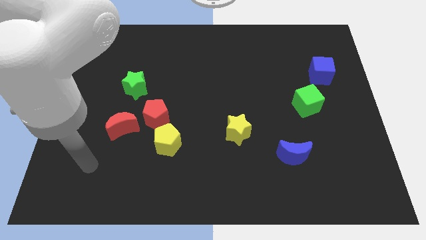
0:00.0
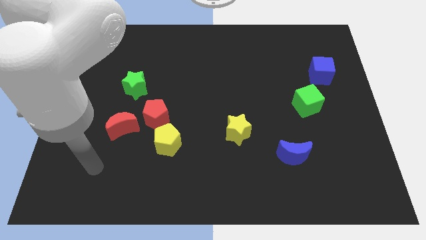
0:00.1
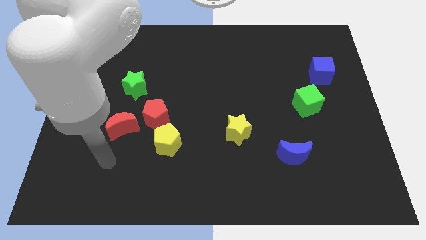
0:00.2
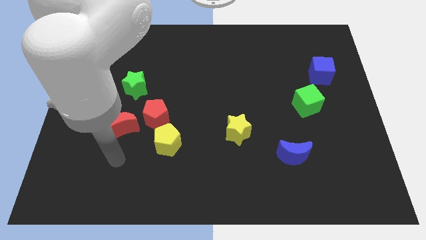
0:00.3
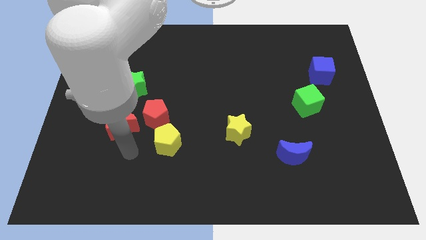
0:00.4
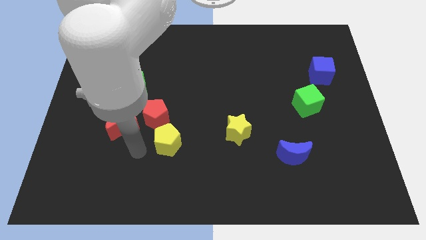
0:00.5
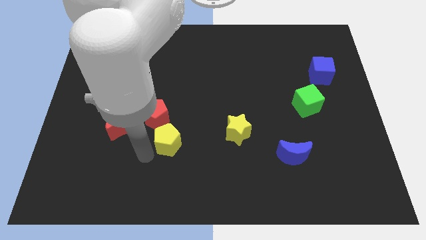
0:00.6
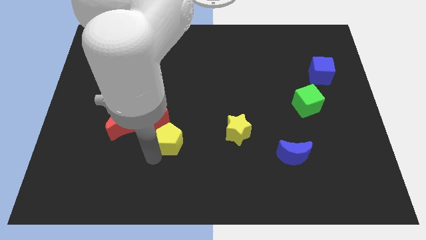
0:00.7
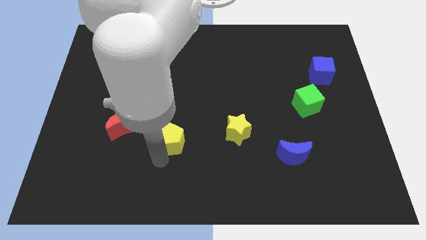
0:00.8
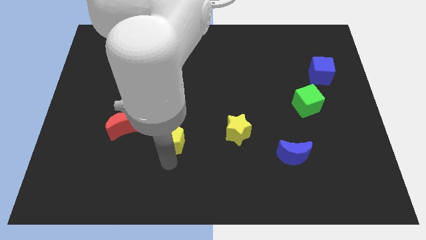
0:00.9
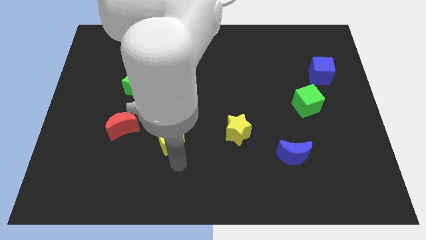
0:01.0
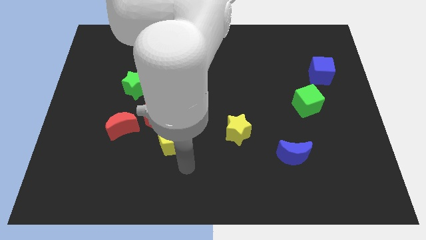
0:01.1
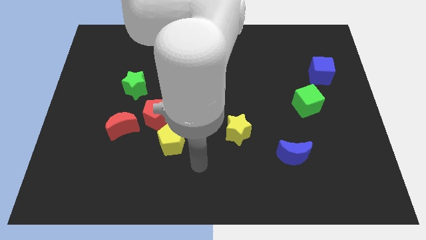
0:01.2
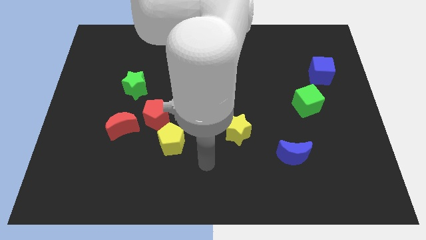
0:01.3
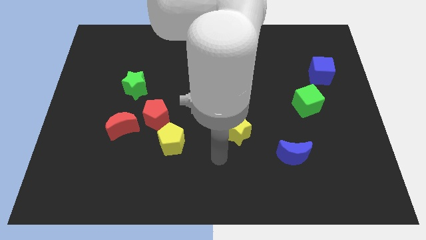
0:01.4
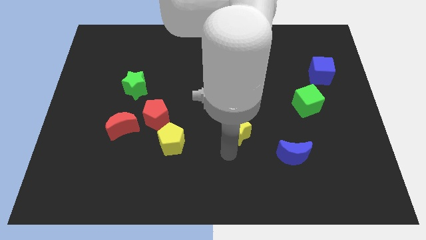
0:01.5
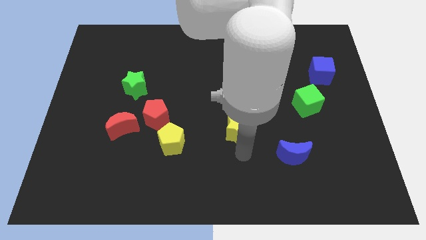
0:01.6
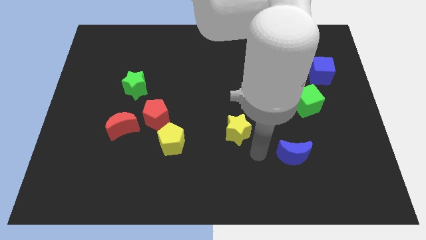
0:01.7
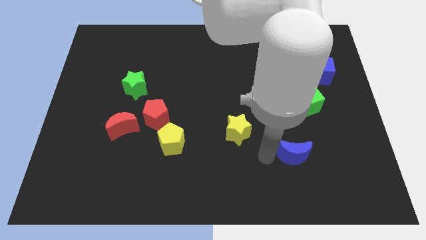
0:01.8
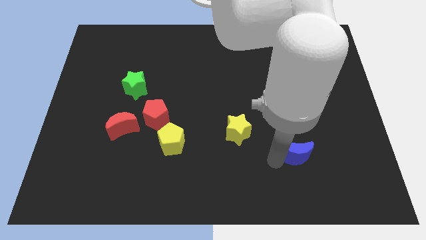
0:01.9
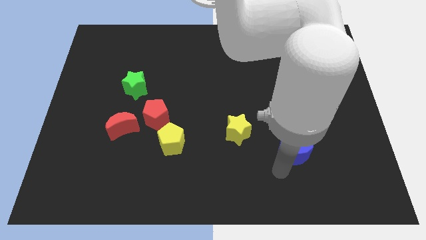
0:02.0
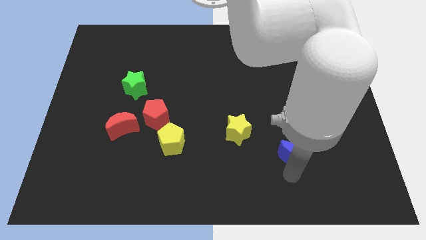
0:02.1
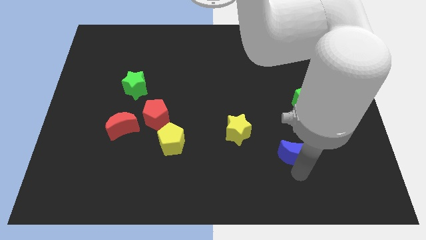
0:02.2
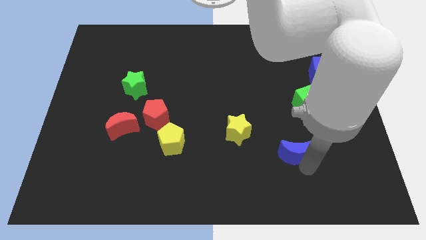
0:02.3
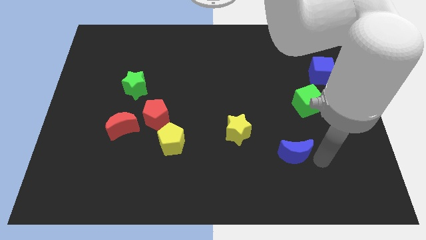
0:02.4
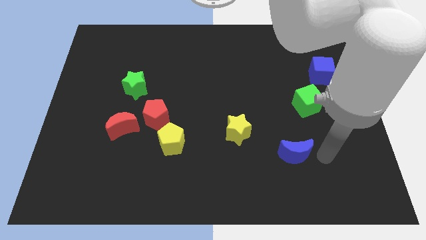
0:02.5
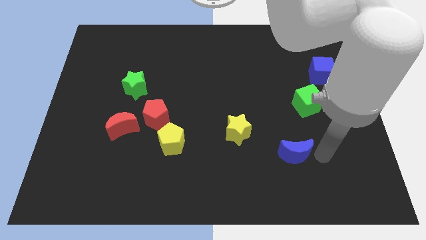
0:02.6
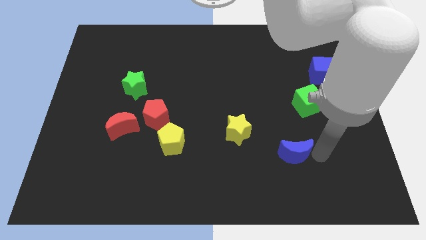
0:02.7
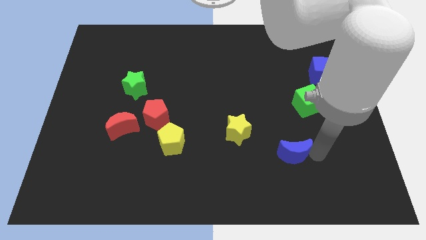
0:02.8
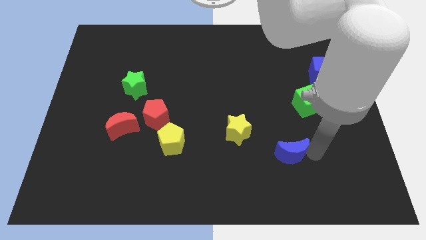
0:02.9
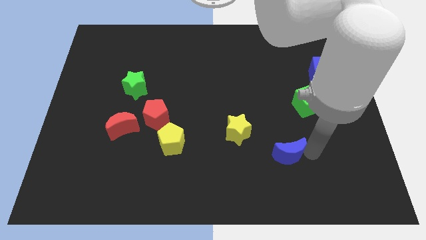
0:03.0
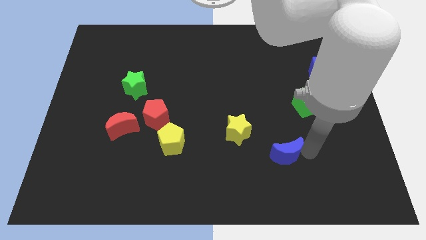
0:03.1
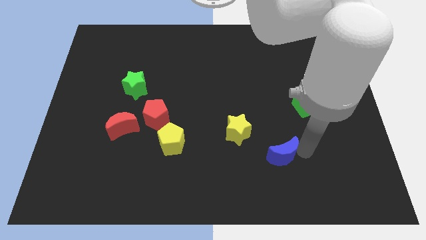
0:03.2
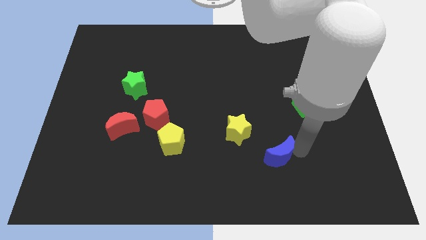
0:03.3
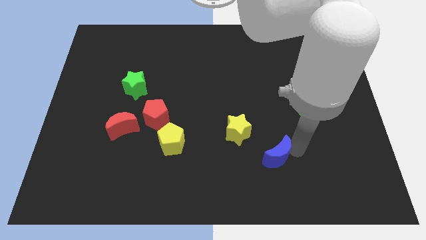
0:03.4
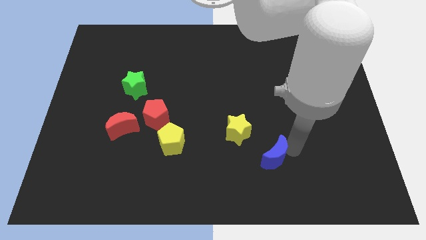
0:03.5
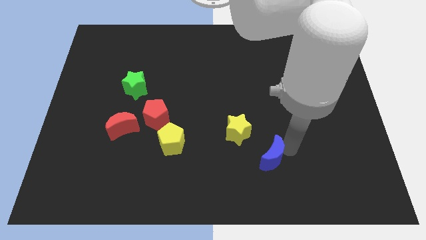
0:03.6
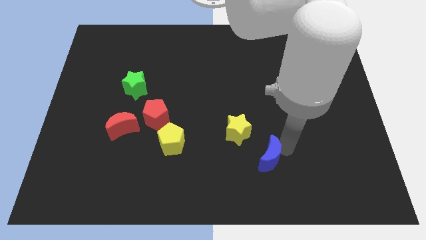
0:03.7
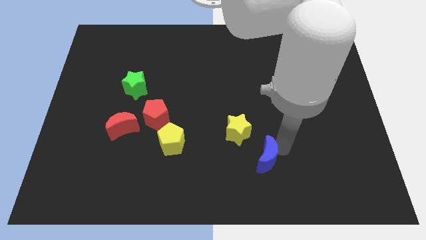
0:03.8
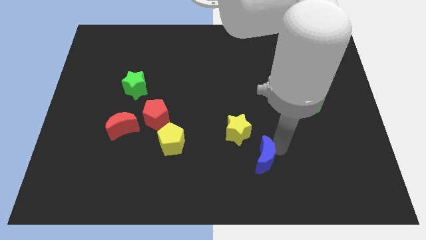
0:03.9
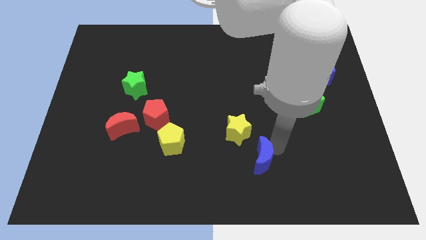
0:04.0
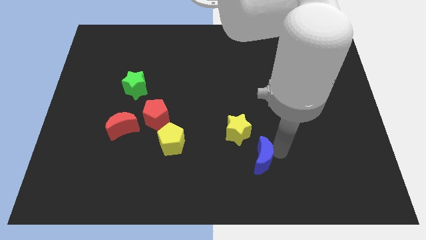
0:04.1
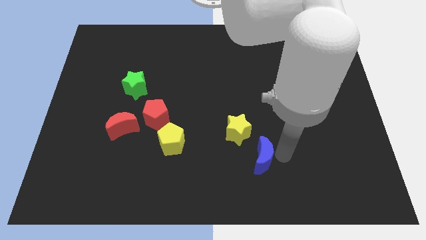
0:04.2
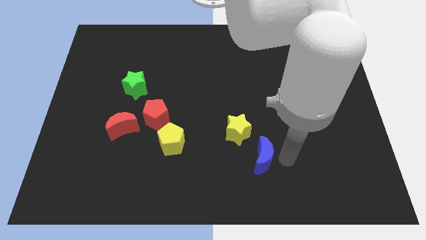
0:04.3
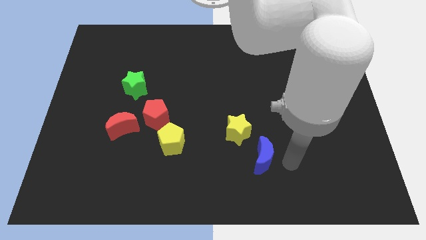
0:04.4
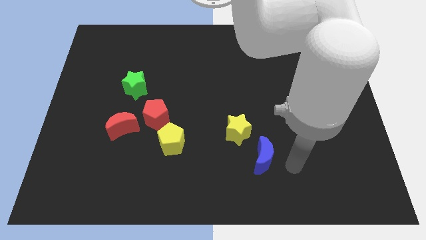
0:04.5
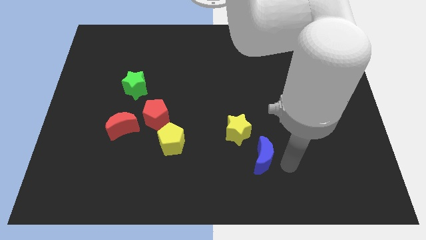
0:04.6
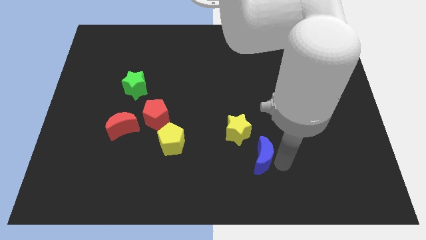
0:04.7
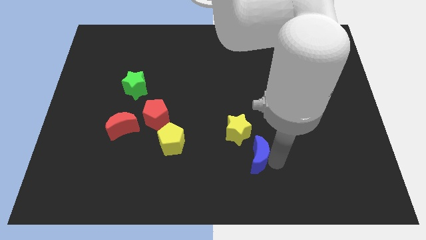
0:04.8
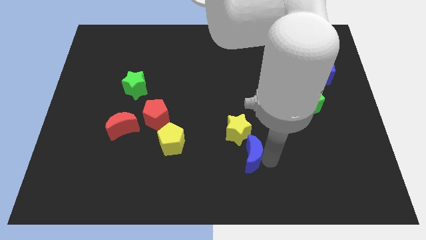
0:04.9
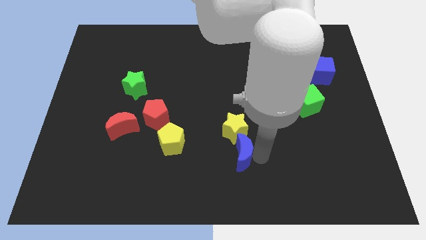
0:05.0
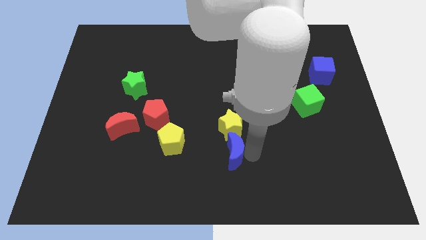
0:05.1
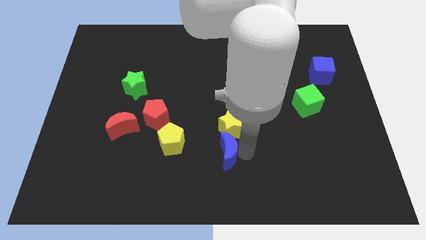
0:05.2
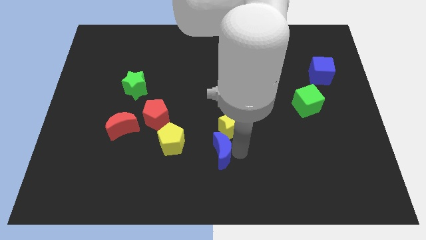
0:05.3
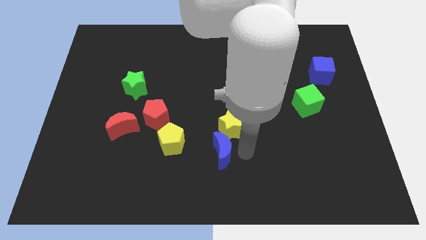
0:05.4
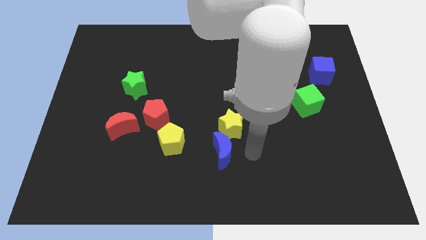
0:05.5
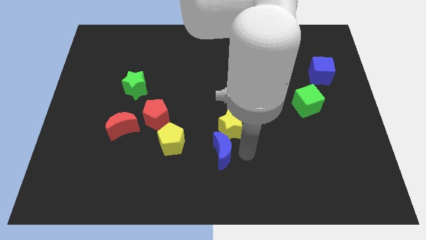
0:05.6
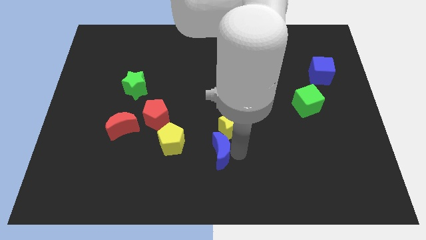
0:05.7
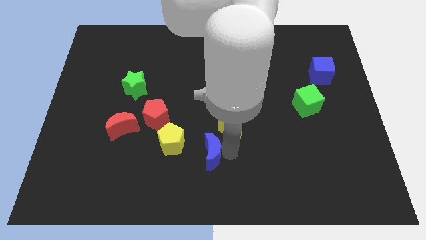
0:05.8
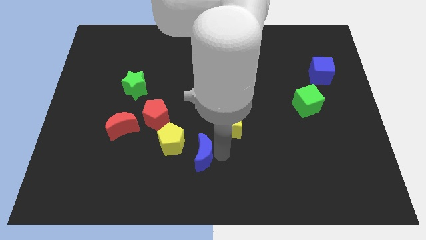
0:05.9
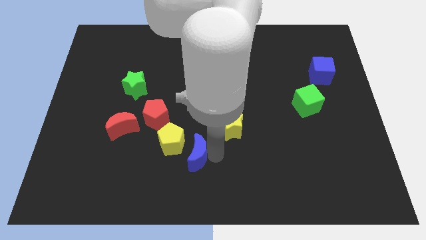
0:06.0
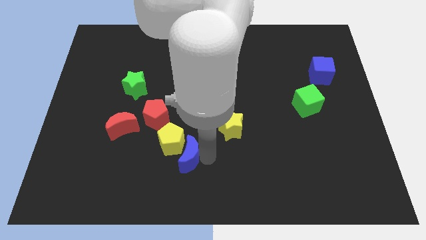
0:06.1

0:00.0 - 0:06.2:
put the blue moon towards the yellow pentagon
